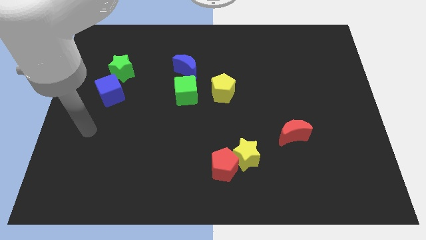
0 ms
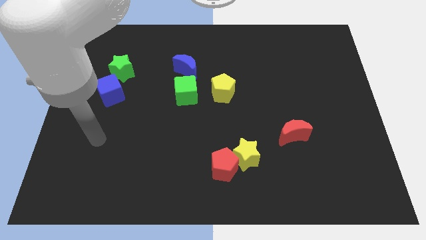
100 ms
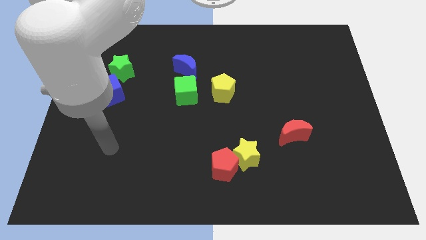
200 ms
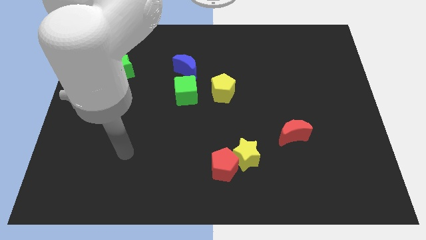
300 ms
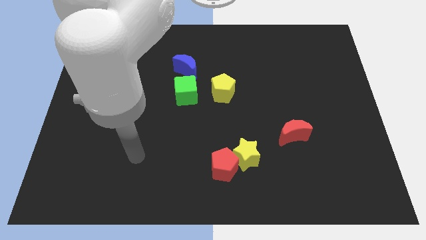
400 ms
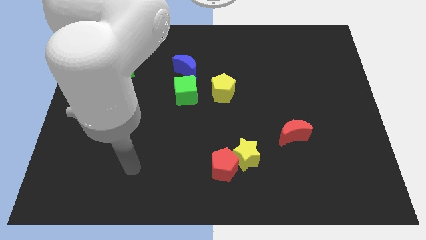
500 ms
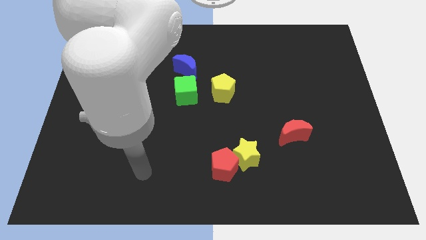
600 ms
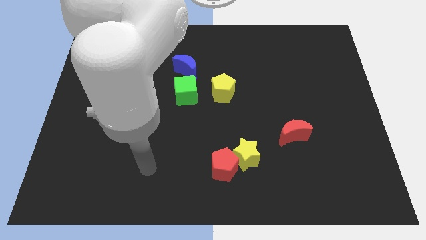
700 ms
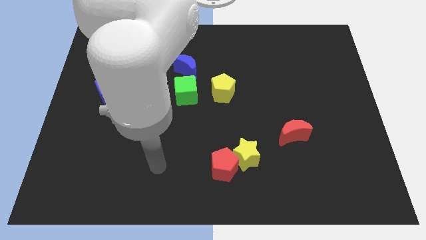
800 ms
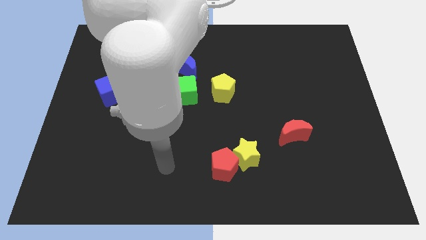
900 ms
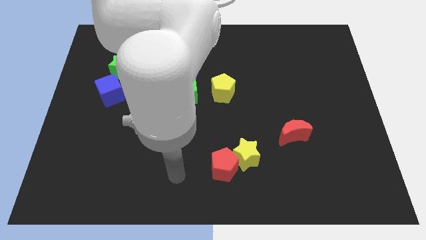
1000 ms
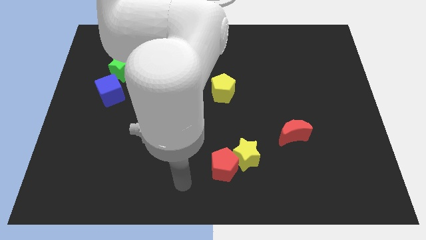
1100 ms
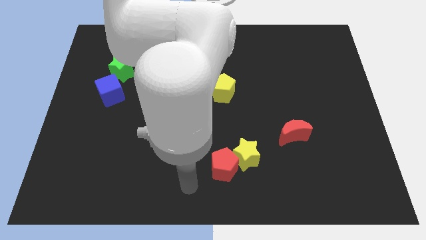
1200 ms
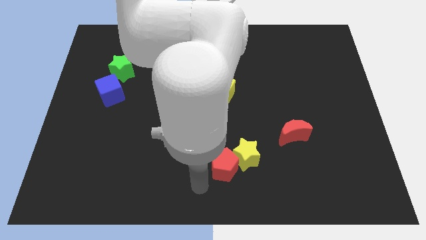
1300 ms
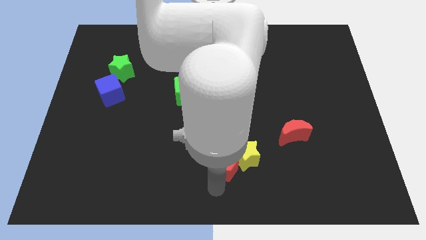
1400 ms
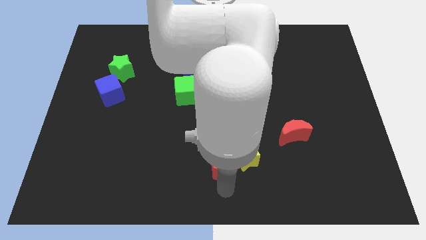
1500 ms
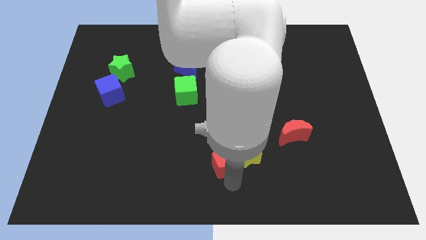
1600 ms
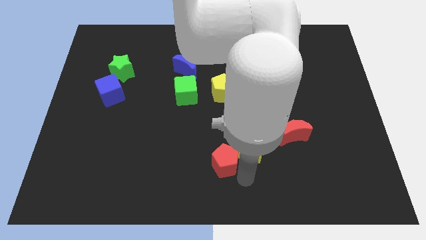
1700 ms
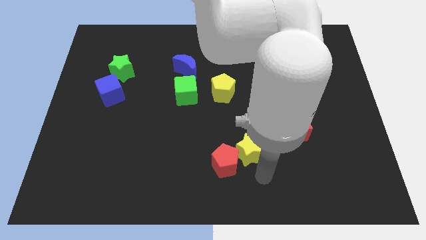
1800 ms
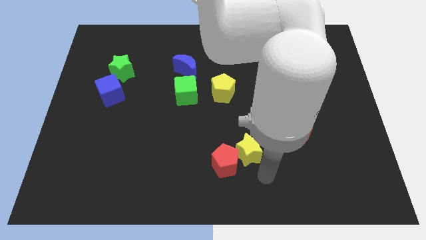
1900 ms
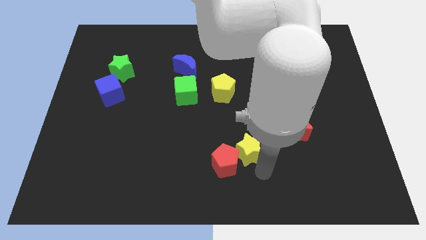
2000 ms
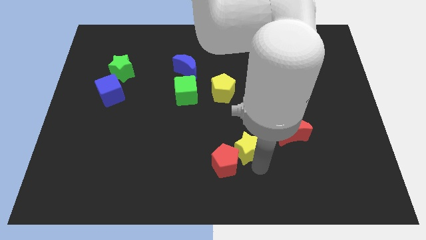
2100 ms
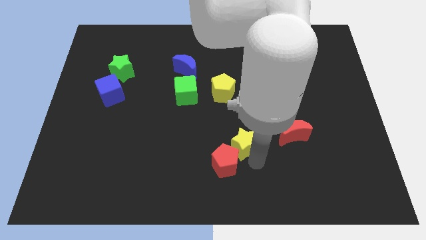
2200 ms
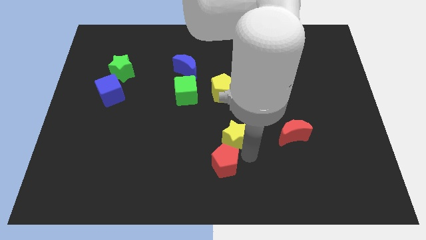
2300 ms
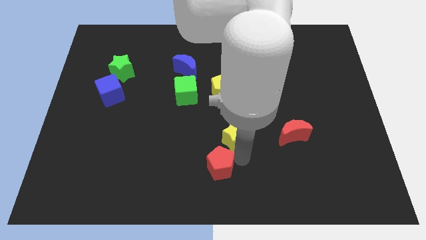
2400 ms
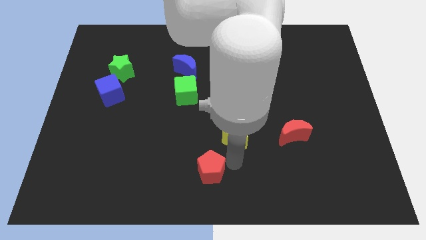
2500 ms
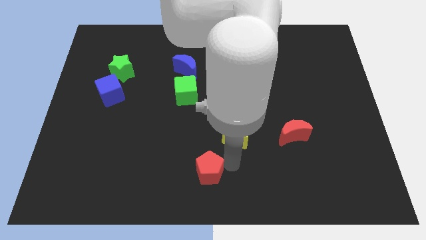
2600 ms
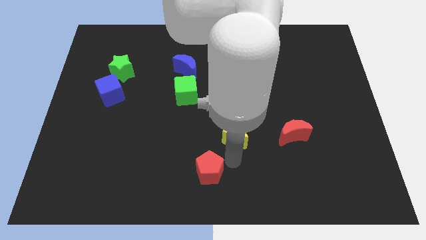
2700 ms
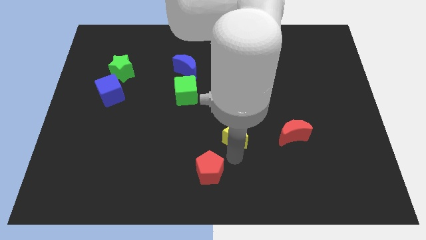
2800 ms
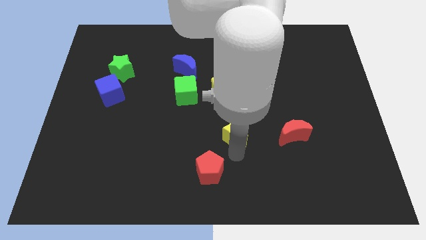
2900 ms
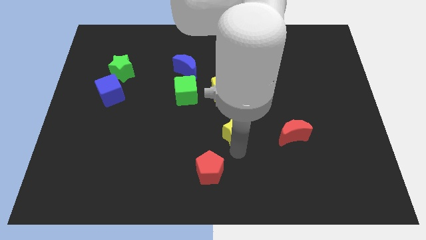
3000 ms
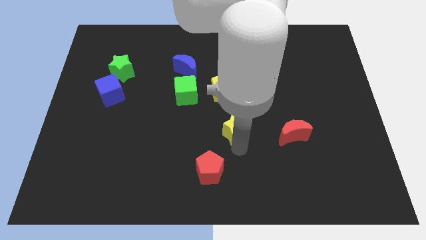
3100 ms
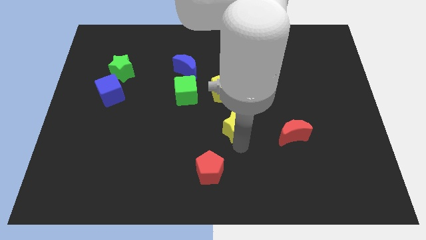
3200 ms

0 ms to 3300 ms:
slightly push the yellow star up

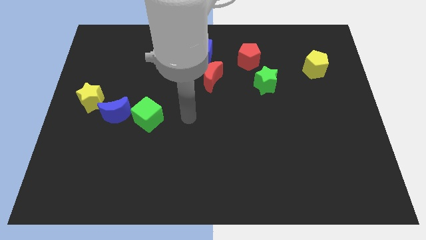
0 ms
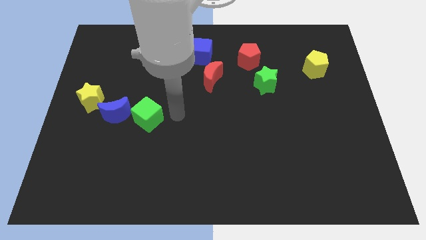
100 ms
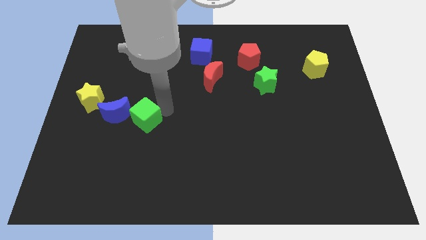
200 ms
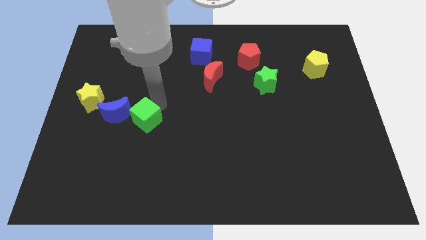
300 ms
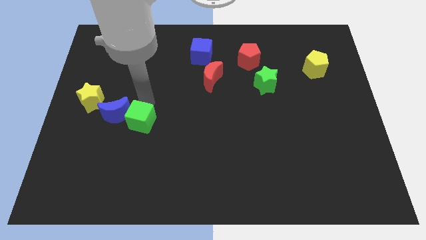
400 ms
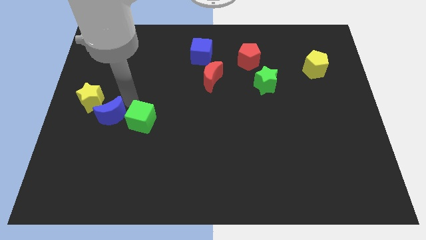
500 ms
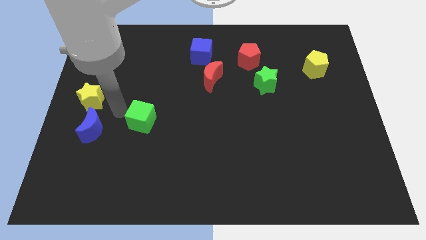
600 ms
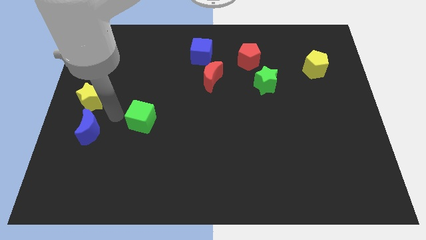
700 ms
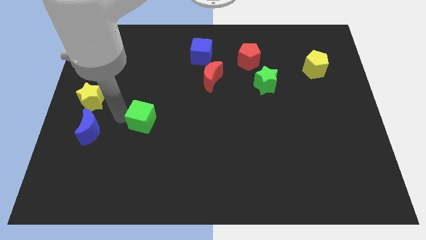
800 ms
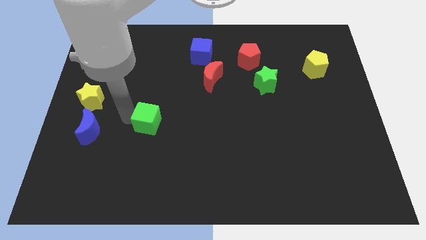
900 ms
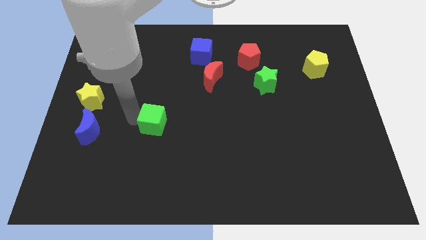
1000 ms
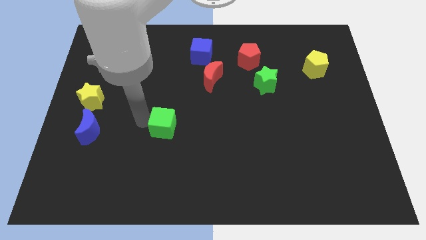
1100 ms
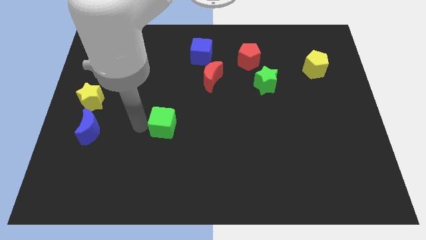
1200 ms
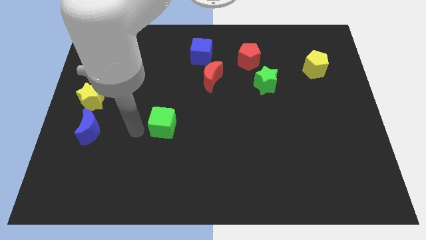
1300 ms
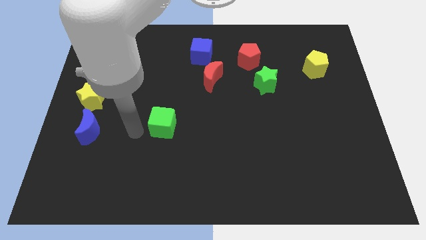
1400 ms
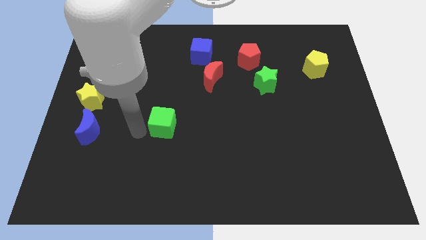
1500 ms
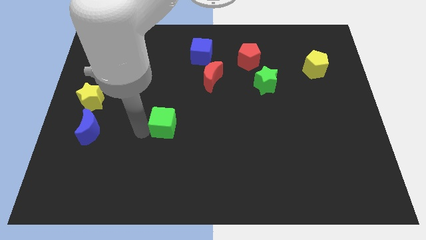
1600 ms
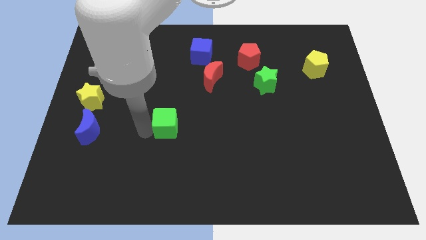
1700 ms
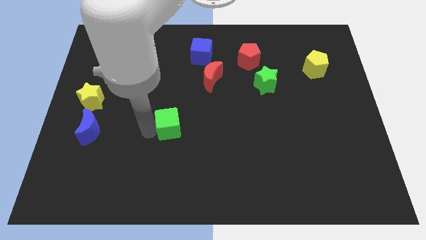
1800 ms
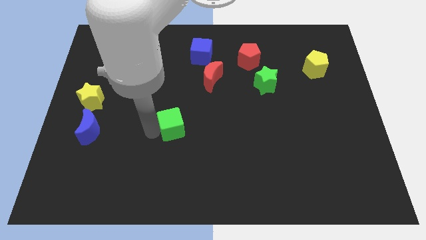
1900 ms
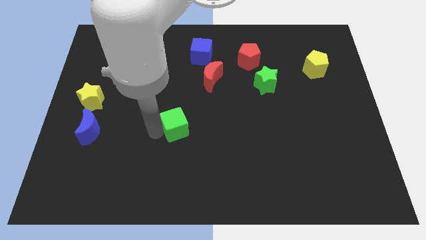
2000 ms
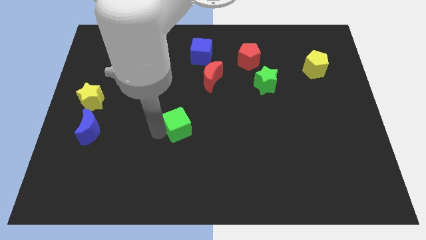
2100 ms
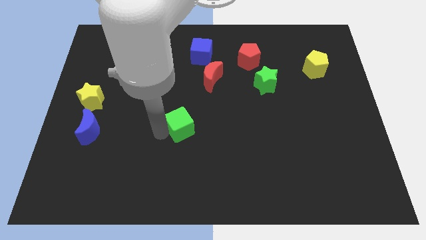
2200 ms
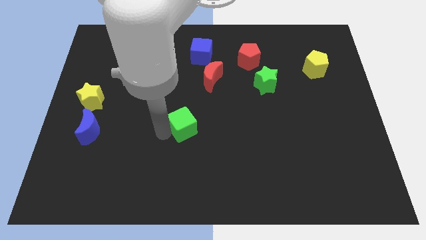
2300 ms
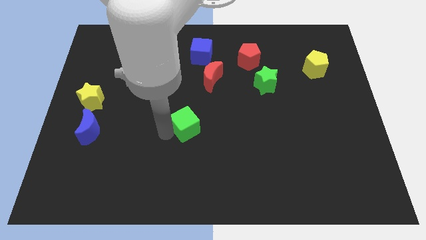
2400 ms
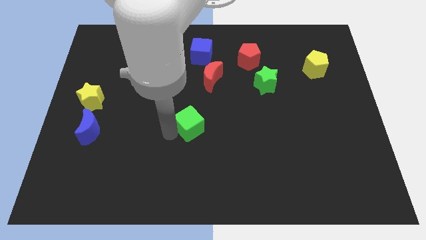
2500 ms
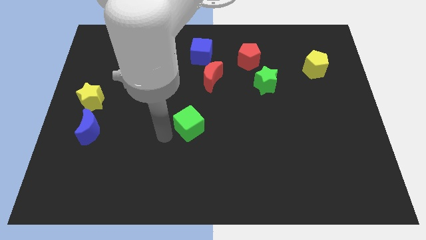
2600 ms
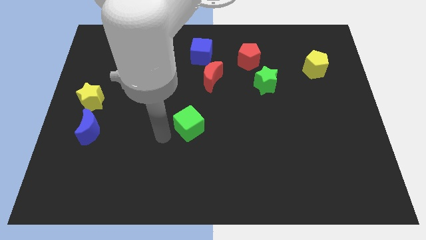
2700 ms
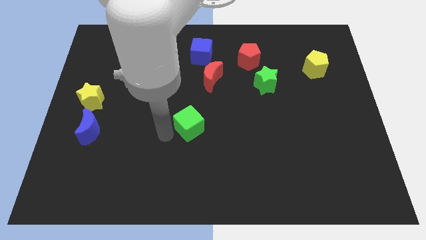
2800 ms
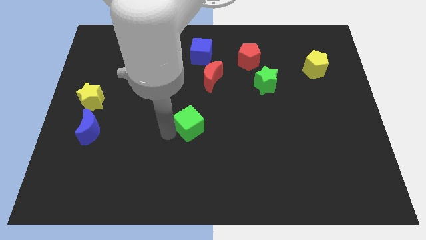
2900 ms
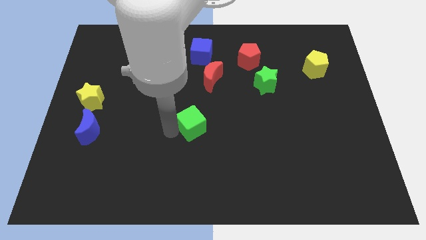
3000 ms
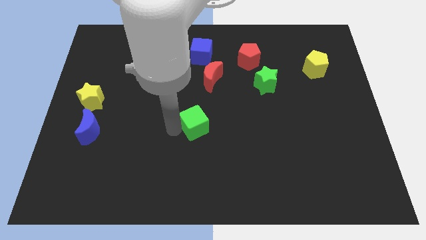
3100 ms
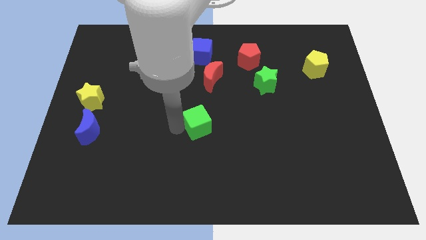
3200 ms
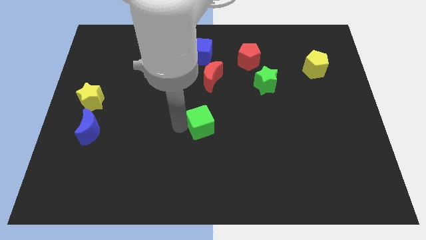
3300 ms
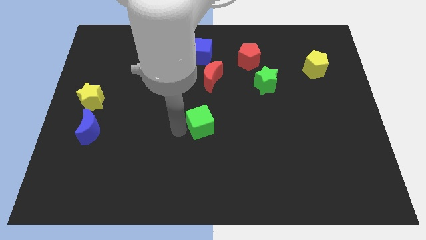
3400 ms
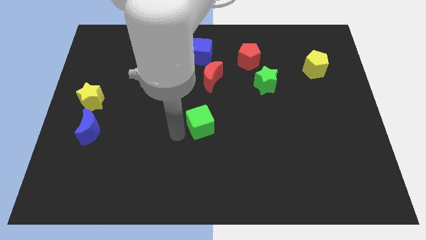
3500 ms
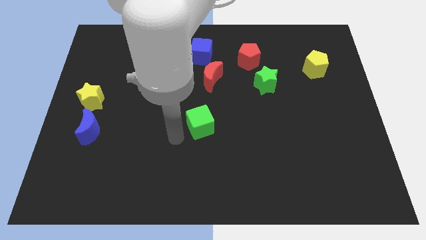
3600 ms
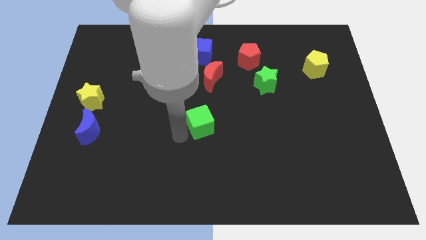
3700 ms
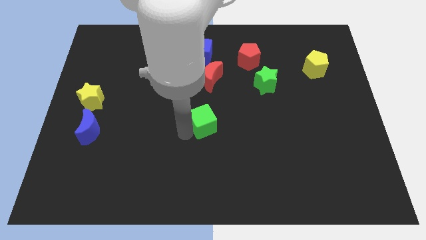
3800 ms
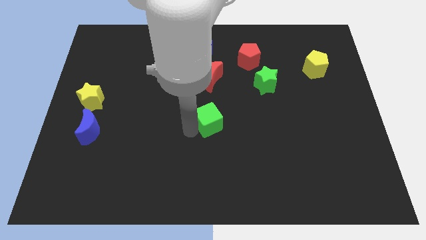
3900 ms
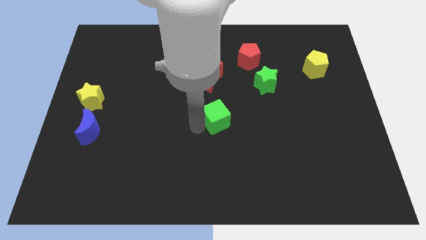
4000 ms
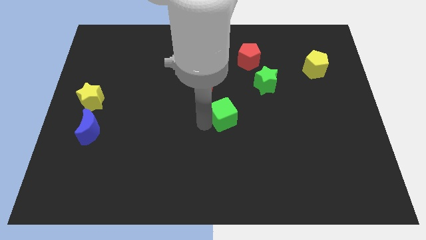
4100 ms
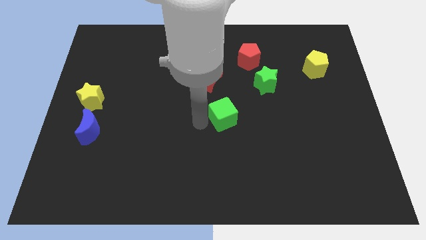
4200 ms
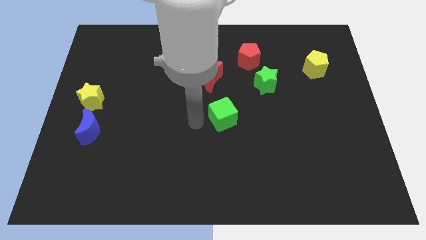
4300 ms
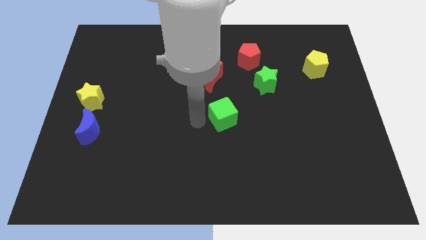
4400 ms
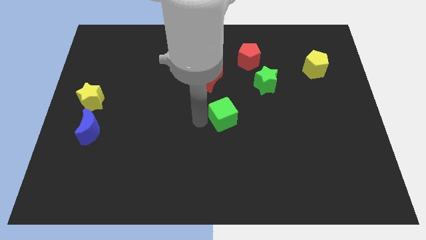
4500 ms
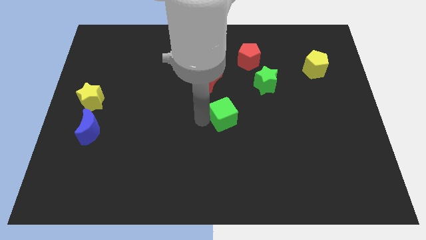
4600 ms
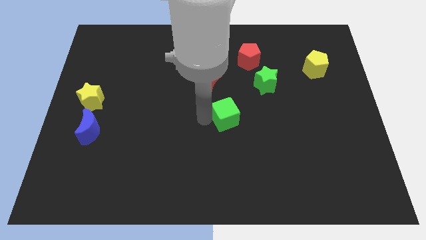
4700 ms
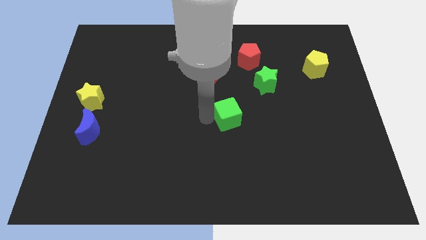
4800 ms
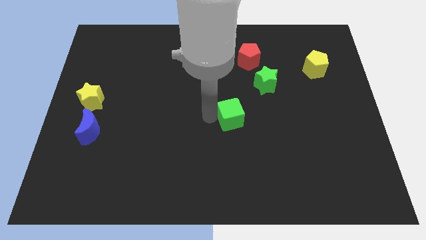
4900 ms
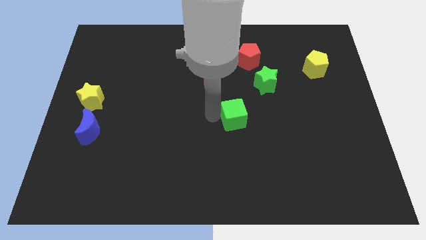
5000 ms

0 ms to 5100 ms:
move the green cube to the right
